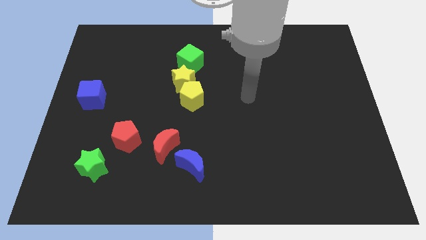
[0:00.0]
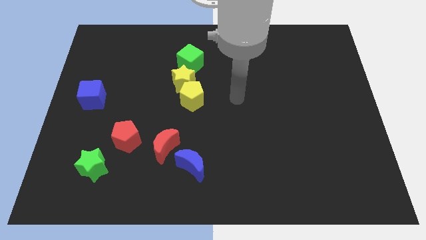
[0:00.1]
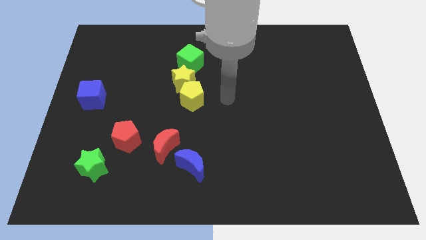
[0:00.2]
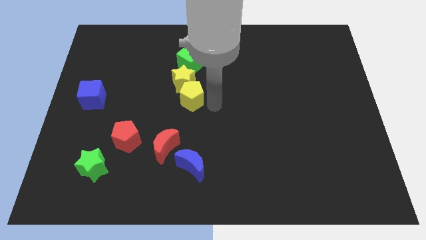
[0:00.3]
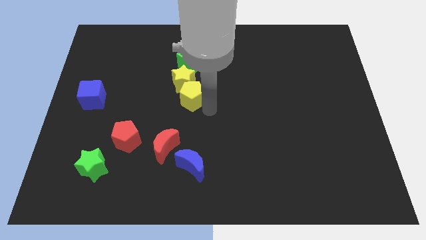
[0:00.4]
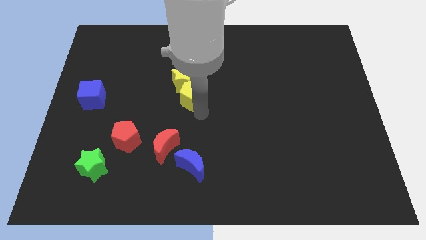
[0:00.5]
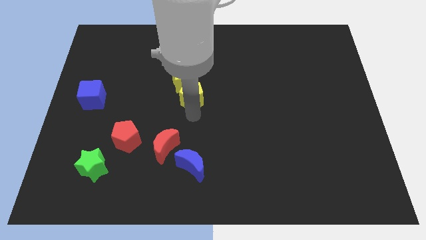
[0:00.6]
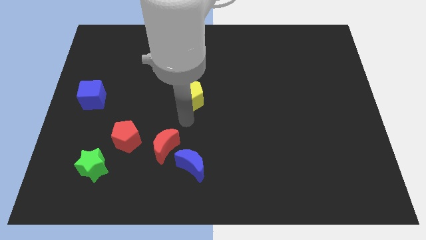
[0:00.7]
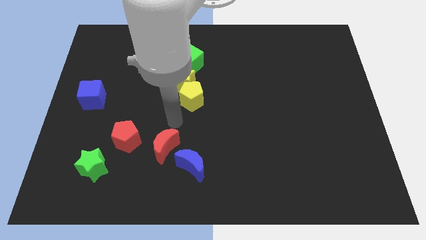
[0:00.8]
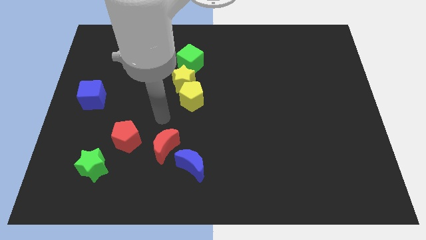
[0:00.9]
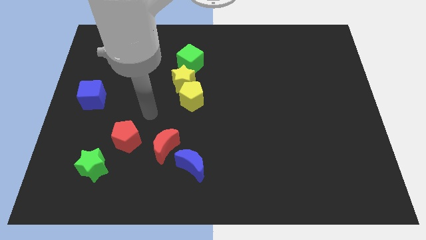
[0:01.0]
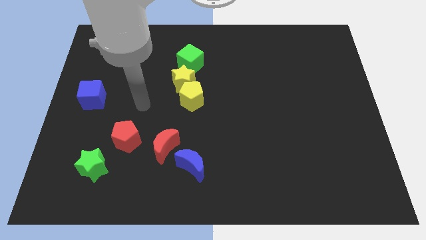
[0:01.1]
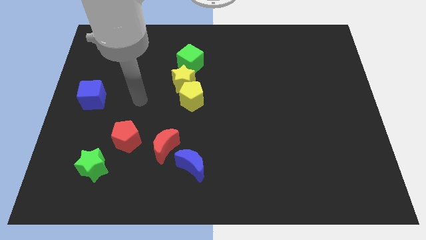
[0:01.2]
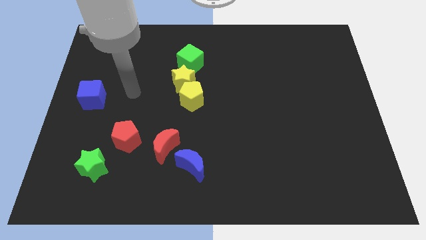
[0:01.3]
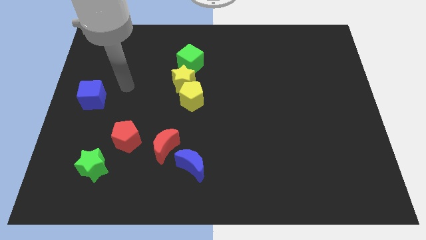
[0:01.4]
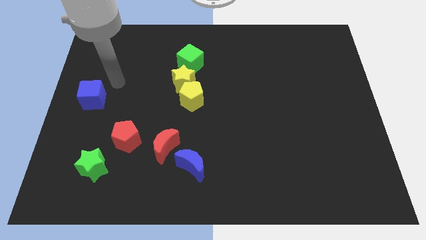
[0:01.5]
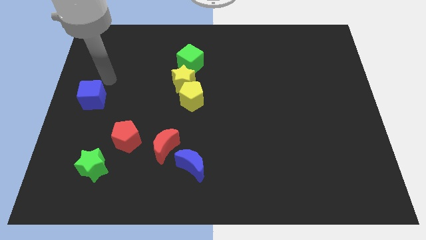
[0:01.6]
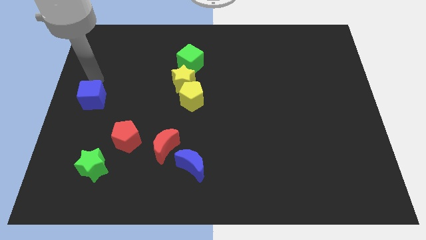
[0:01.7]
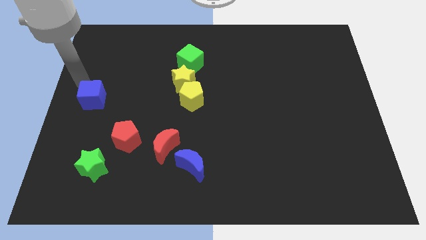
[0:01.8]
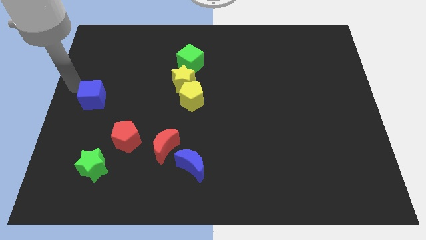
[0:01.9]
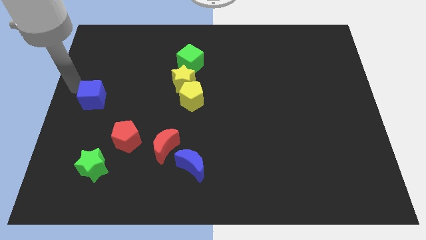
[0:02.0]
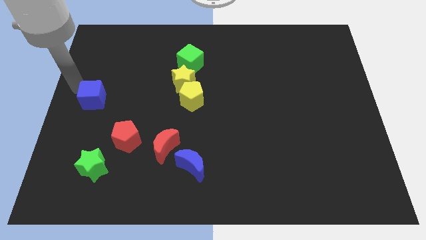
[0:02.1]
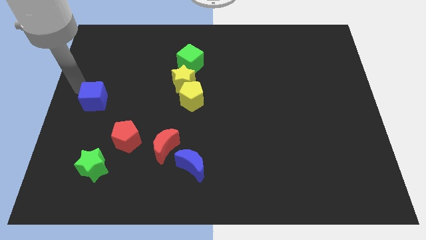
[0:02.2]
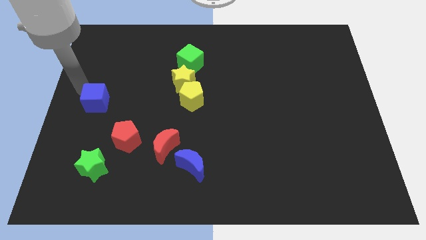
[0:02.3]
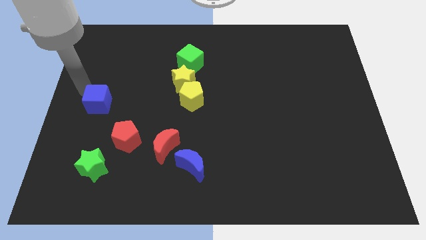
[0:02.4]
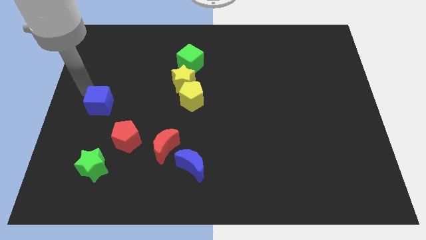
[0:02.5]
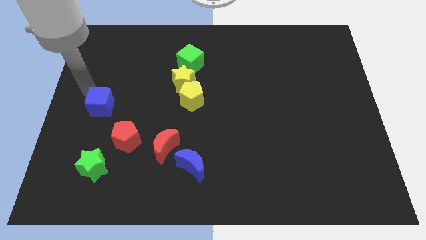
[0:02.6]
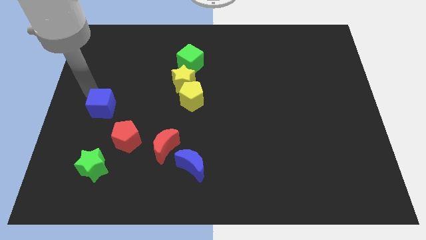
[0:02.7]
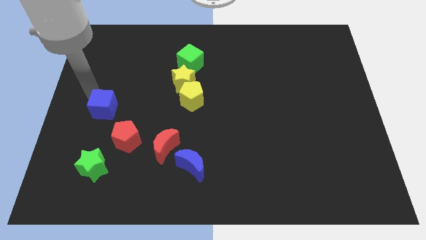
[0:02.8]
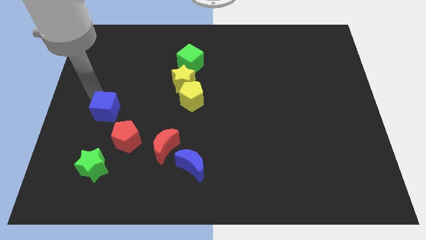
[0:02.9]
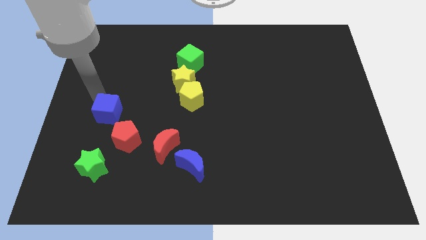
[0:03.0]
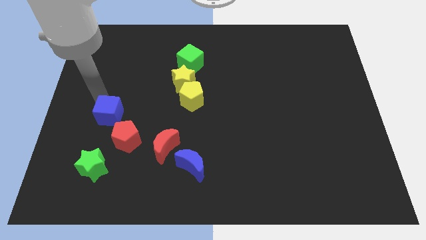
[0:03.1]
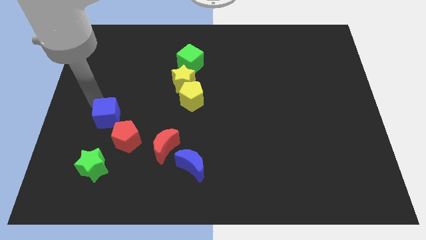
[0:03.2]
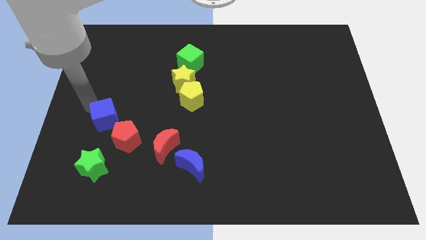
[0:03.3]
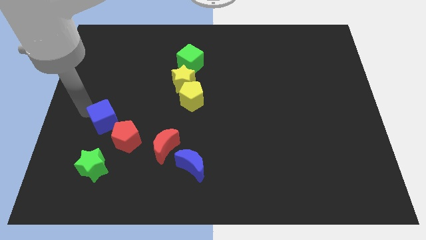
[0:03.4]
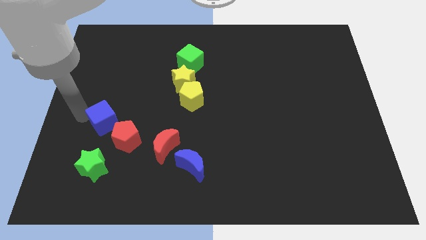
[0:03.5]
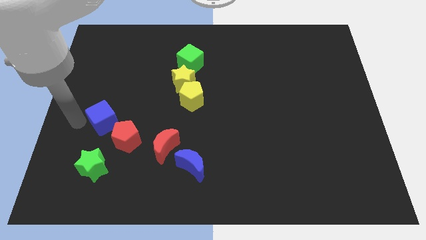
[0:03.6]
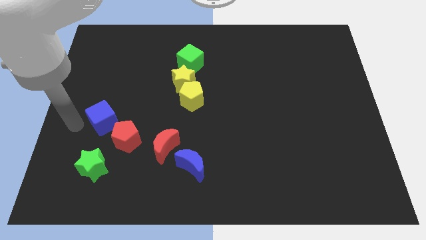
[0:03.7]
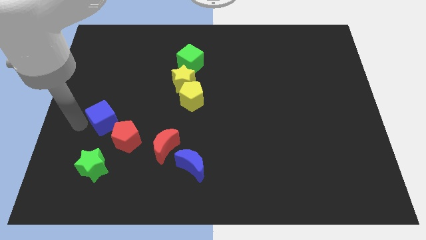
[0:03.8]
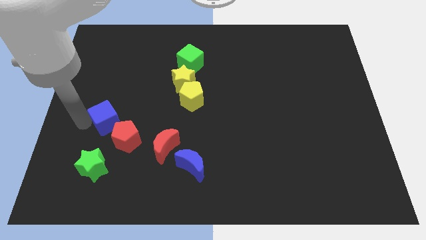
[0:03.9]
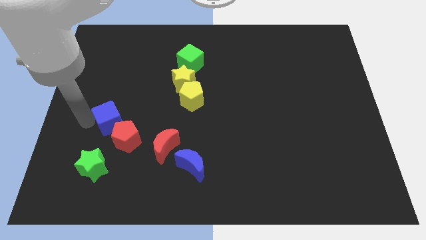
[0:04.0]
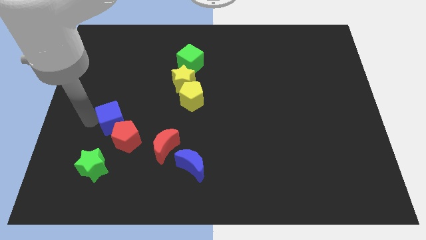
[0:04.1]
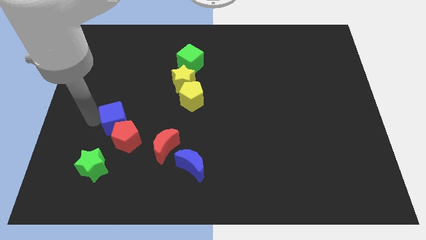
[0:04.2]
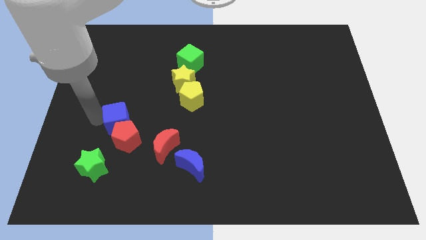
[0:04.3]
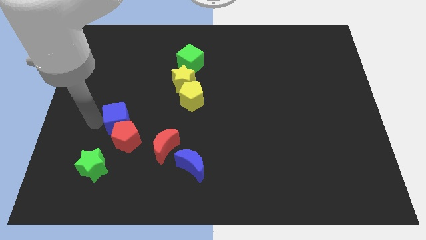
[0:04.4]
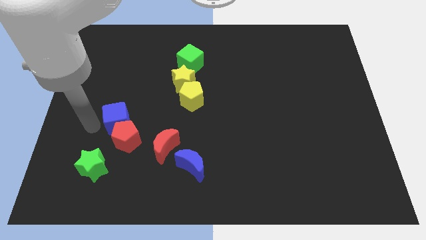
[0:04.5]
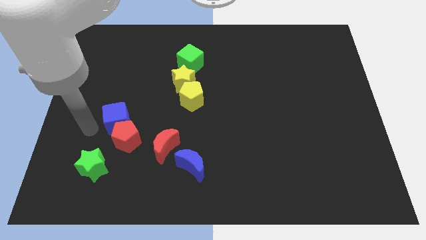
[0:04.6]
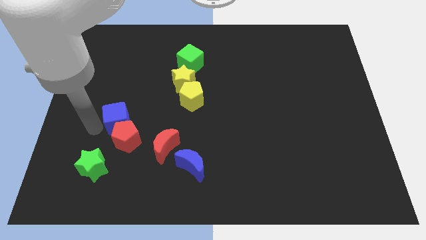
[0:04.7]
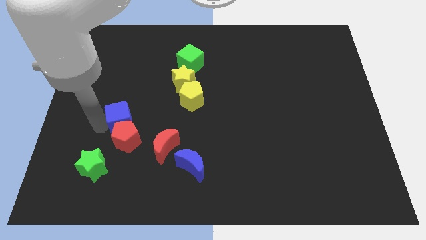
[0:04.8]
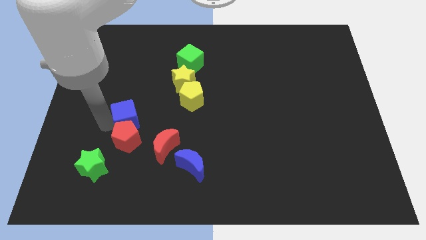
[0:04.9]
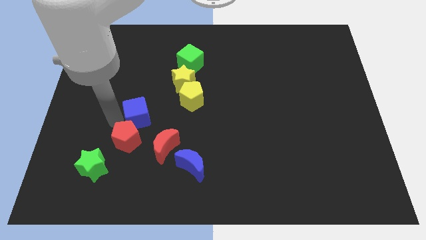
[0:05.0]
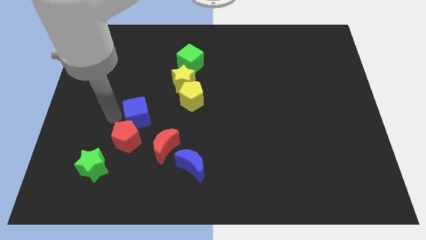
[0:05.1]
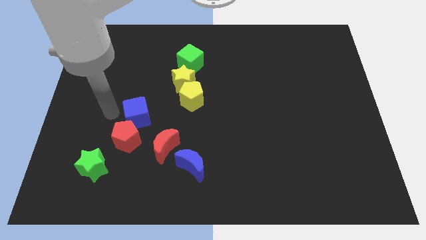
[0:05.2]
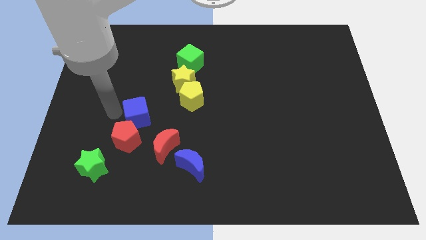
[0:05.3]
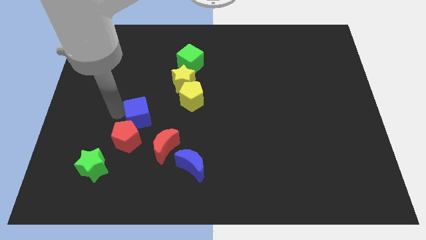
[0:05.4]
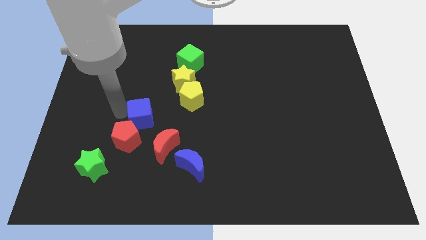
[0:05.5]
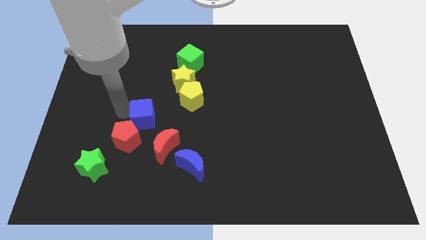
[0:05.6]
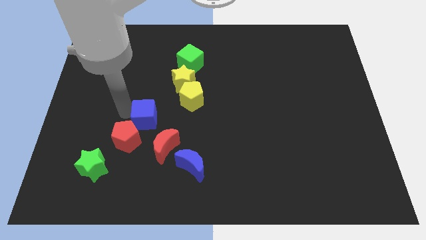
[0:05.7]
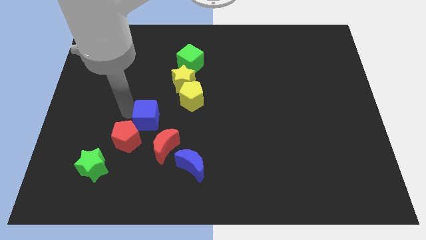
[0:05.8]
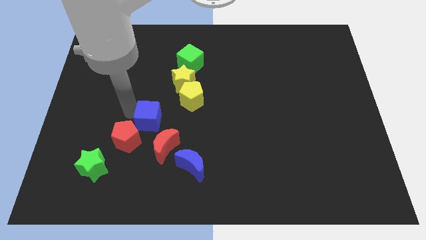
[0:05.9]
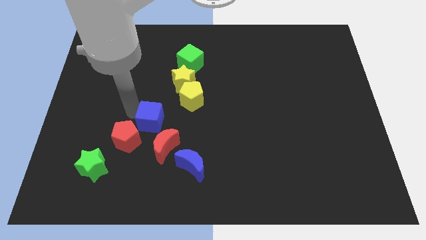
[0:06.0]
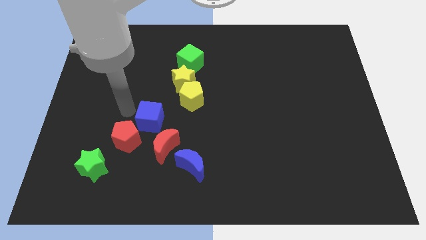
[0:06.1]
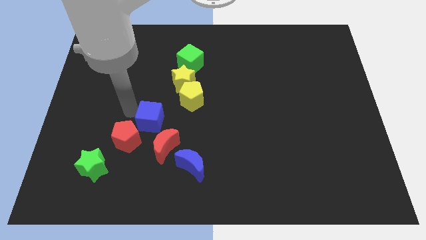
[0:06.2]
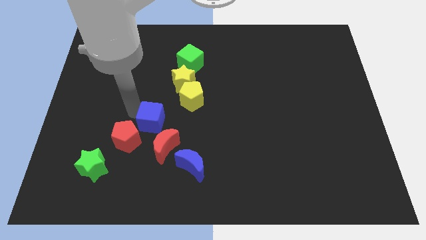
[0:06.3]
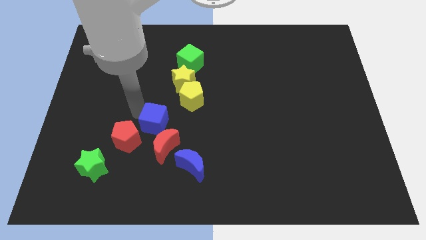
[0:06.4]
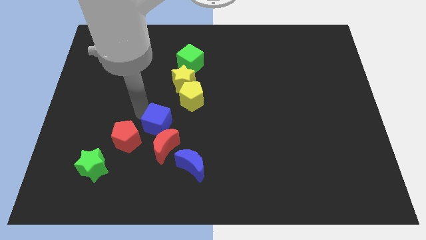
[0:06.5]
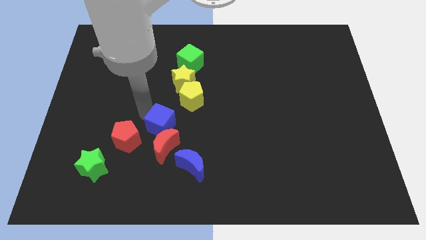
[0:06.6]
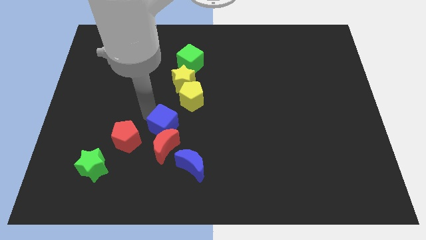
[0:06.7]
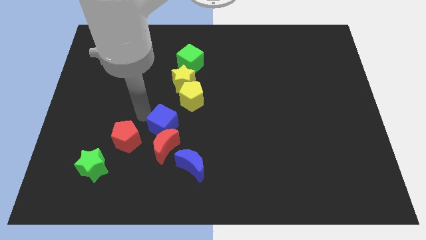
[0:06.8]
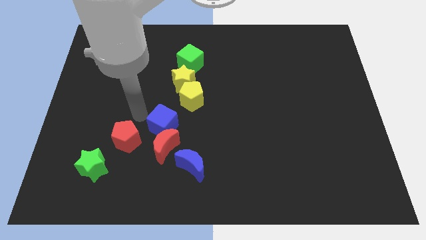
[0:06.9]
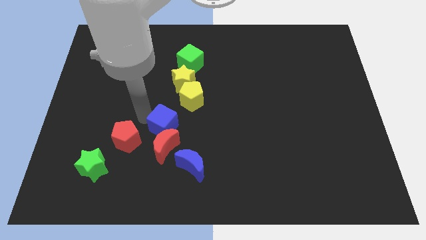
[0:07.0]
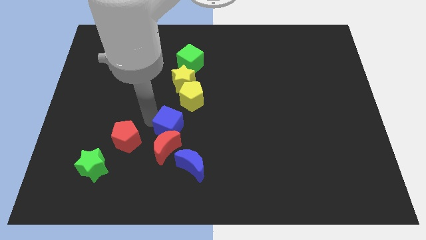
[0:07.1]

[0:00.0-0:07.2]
slide the blue cube below the yellow pentagon

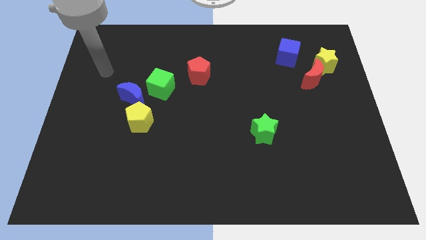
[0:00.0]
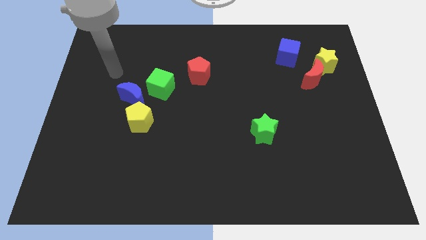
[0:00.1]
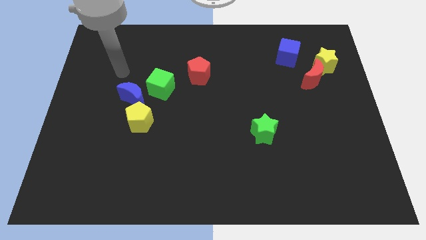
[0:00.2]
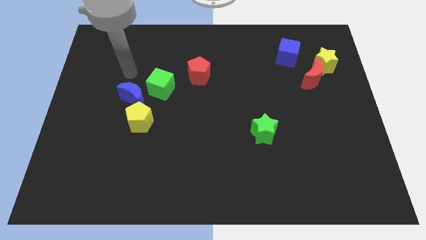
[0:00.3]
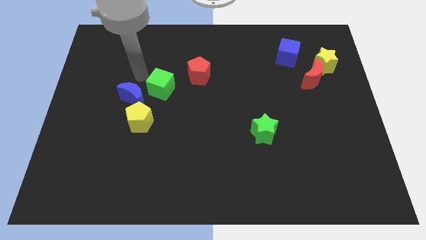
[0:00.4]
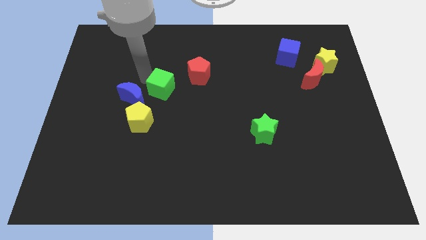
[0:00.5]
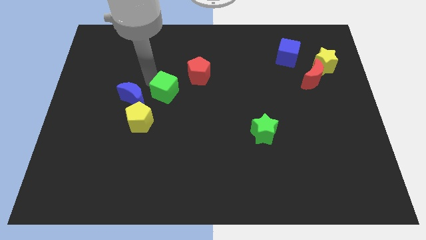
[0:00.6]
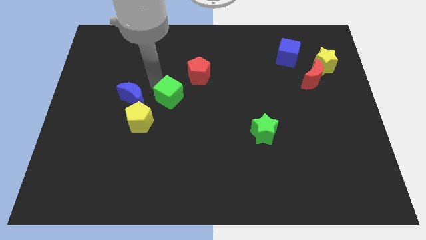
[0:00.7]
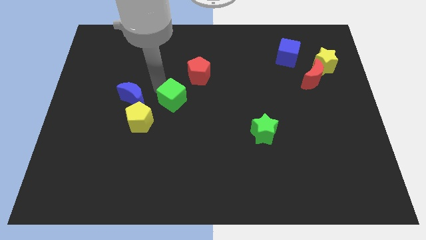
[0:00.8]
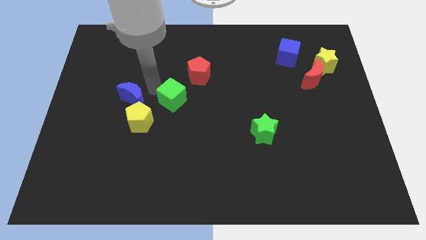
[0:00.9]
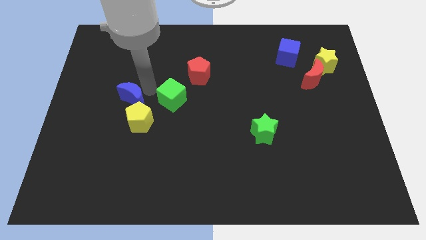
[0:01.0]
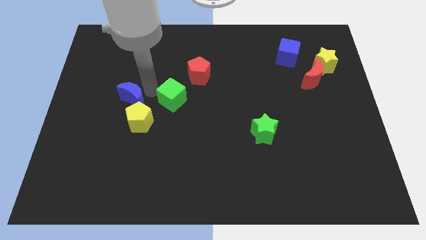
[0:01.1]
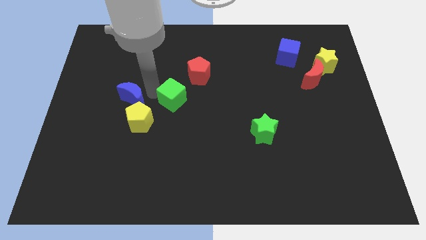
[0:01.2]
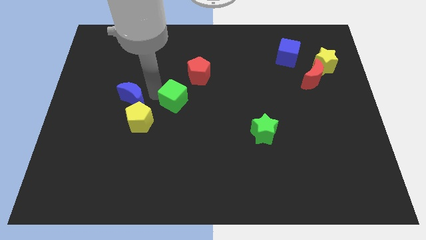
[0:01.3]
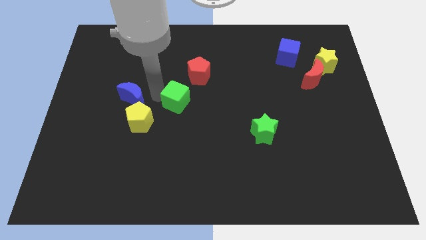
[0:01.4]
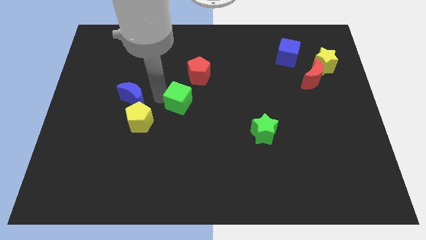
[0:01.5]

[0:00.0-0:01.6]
put the green cube to the bottom side of the red pentagon
